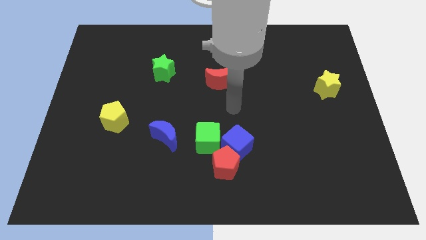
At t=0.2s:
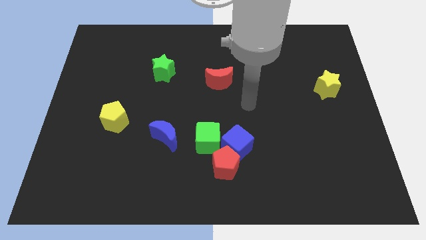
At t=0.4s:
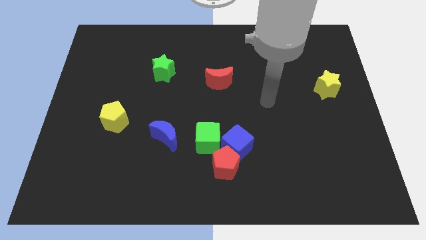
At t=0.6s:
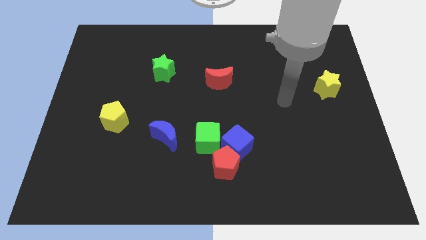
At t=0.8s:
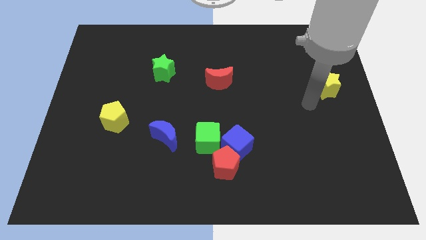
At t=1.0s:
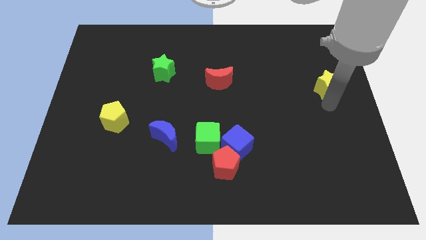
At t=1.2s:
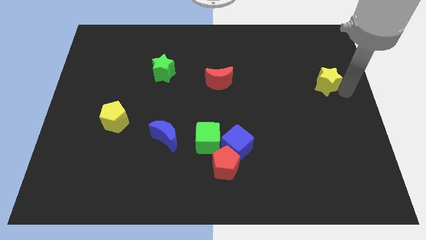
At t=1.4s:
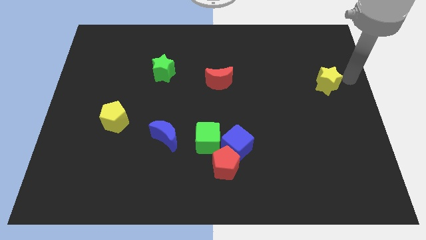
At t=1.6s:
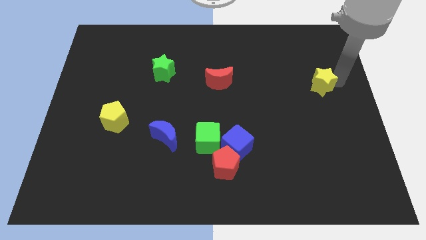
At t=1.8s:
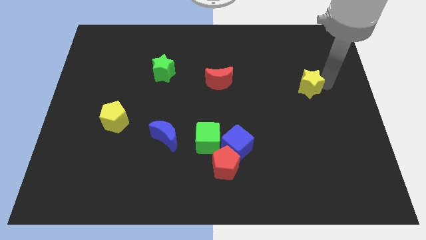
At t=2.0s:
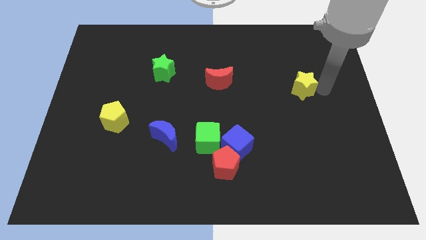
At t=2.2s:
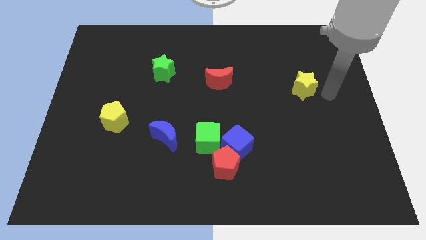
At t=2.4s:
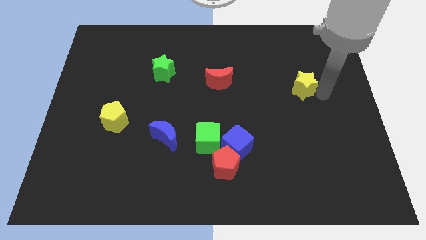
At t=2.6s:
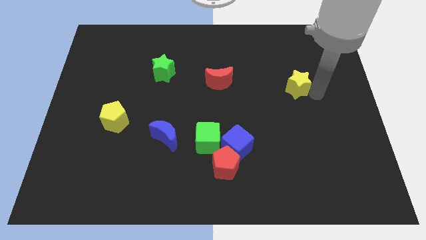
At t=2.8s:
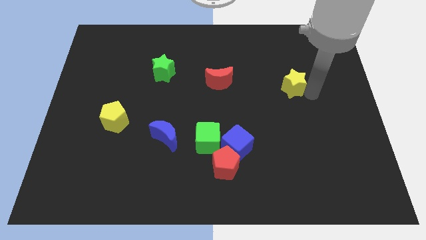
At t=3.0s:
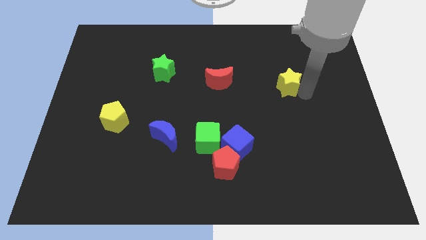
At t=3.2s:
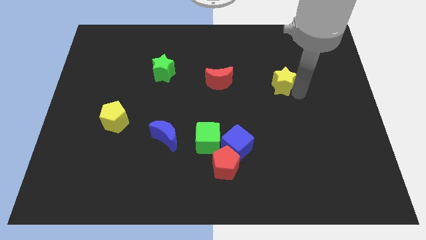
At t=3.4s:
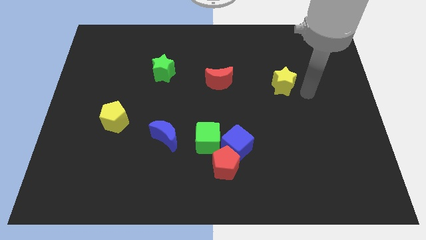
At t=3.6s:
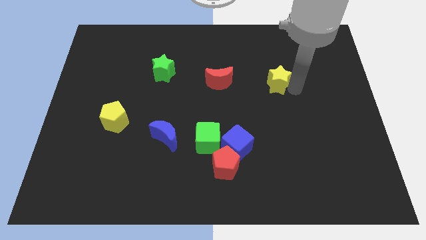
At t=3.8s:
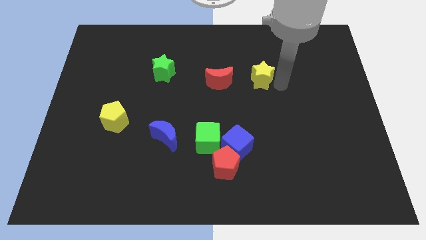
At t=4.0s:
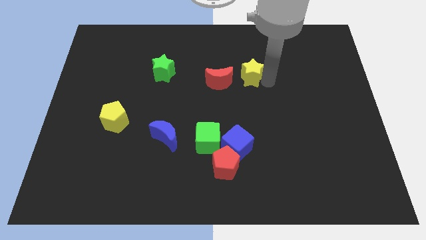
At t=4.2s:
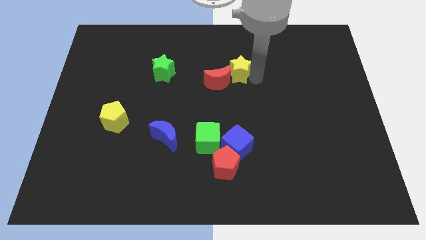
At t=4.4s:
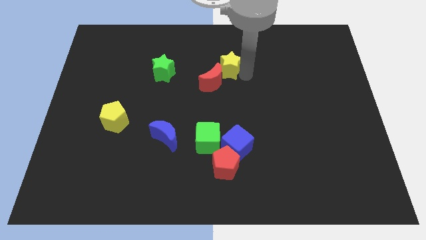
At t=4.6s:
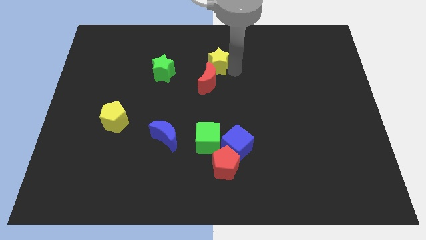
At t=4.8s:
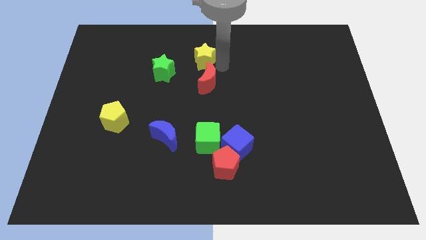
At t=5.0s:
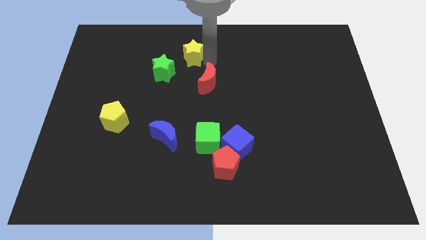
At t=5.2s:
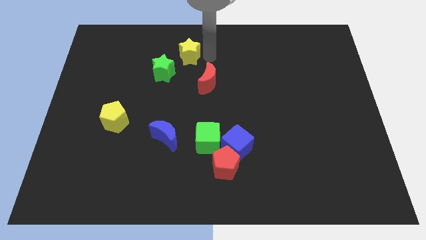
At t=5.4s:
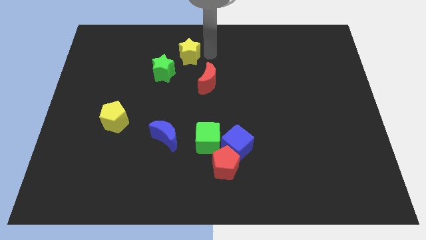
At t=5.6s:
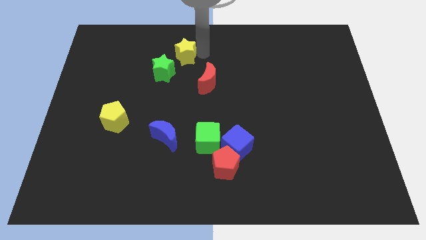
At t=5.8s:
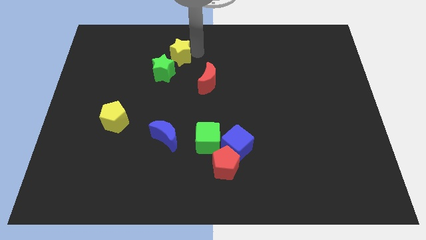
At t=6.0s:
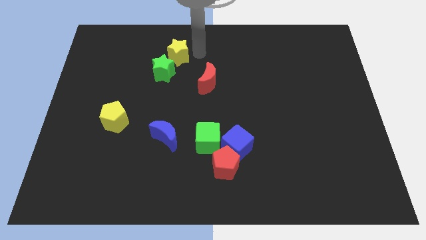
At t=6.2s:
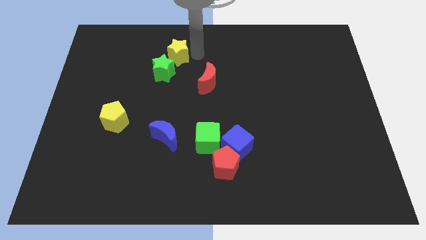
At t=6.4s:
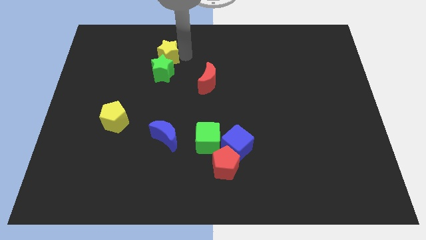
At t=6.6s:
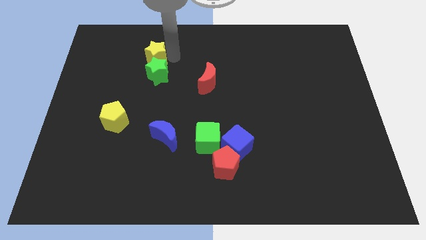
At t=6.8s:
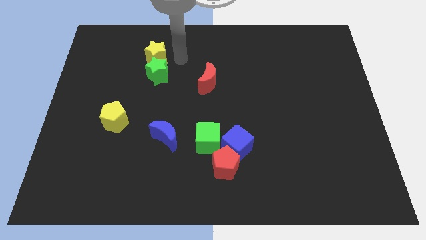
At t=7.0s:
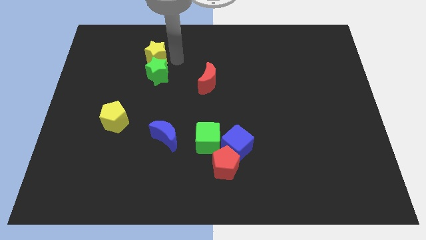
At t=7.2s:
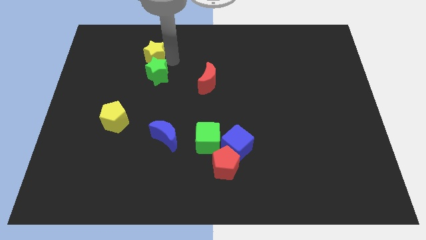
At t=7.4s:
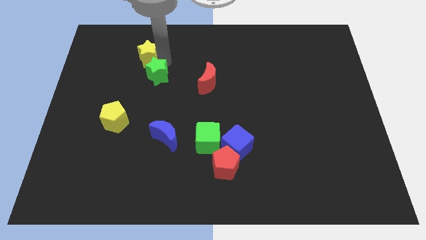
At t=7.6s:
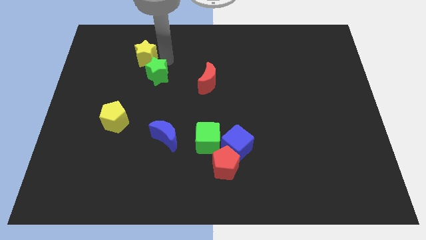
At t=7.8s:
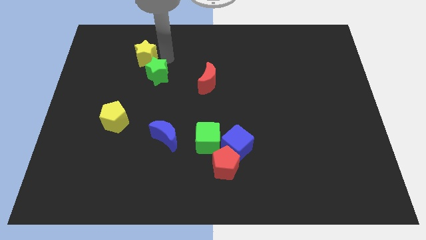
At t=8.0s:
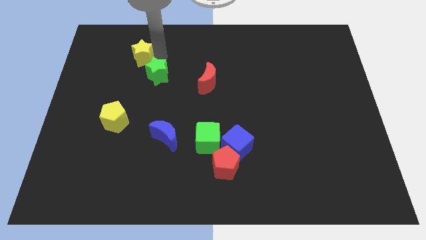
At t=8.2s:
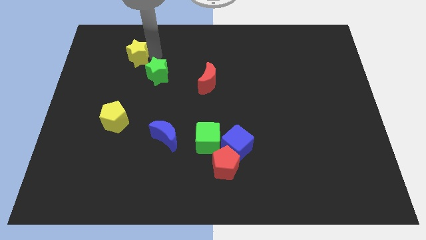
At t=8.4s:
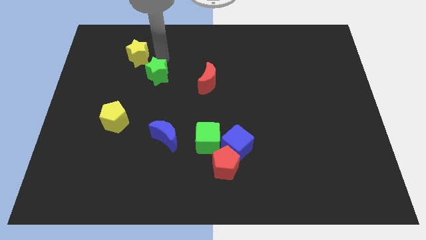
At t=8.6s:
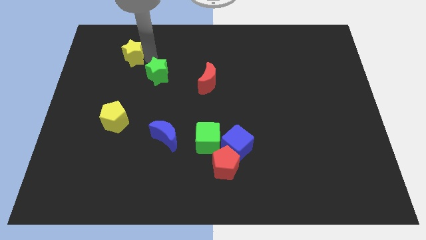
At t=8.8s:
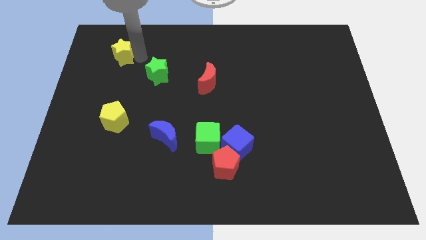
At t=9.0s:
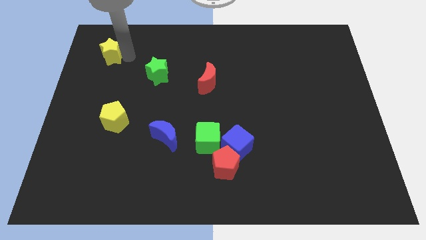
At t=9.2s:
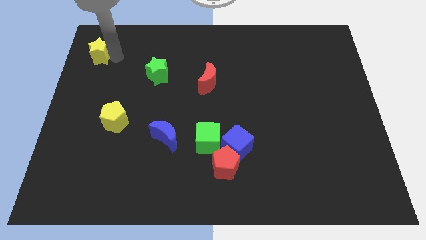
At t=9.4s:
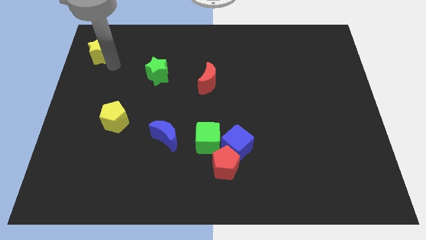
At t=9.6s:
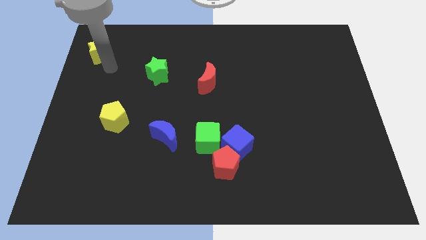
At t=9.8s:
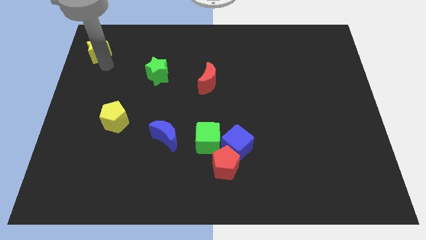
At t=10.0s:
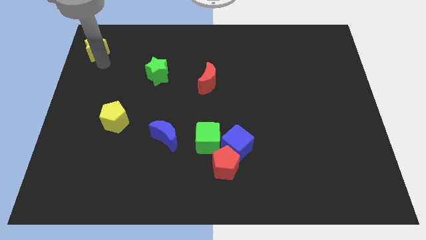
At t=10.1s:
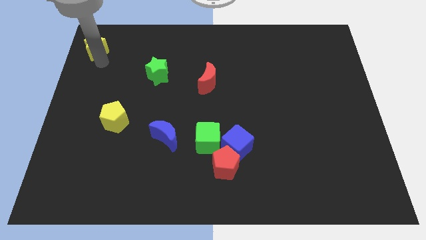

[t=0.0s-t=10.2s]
slide the yellow star to the upper left corner
